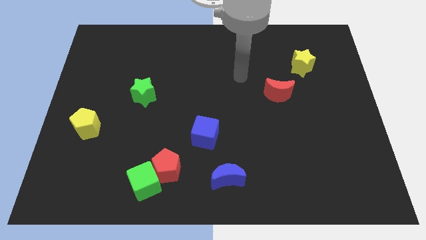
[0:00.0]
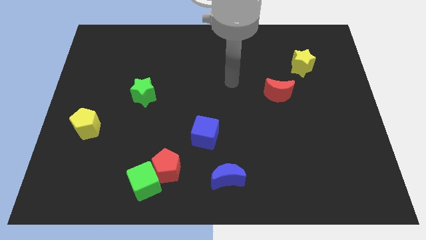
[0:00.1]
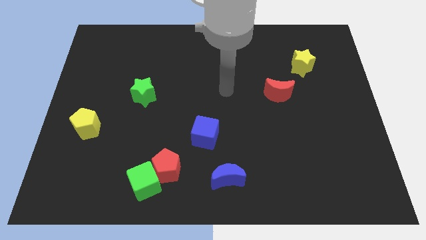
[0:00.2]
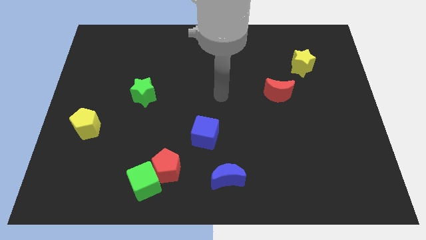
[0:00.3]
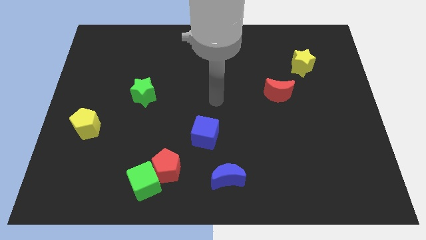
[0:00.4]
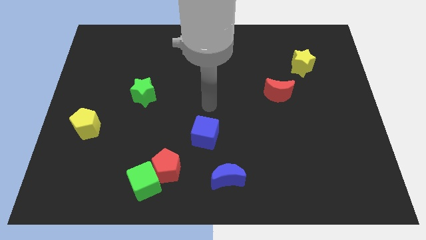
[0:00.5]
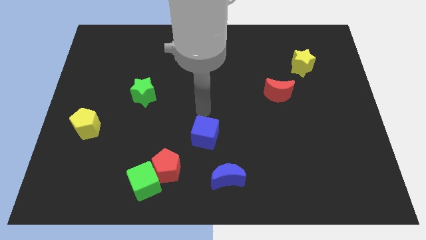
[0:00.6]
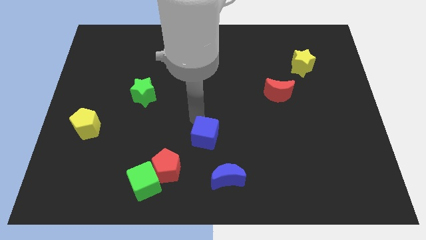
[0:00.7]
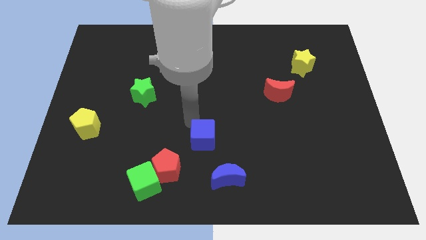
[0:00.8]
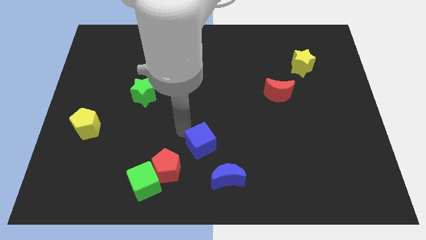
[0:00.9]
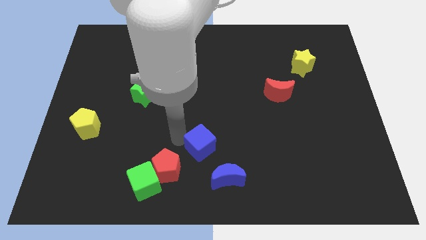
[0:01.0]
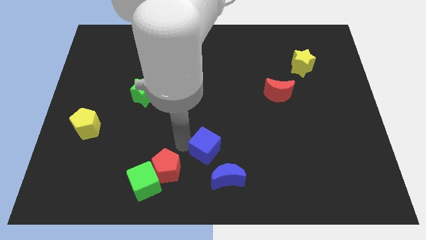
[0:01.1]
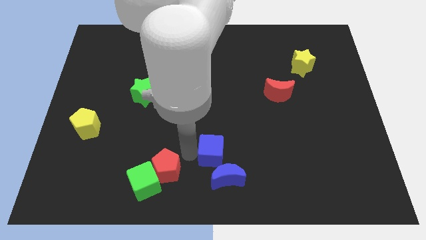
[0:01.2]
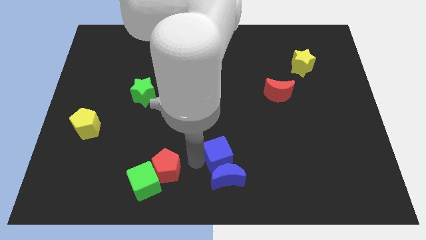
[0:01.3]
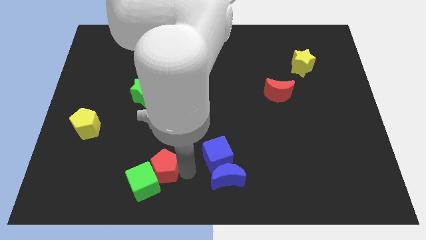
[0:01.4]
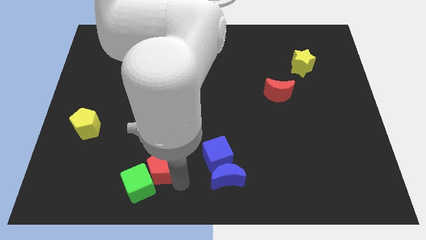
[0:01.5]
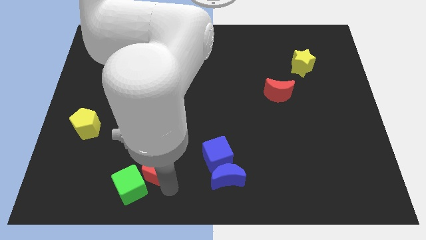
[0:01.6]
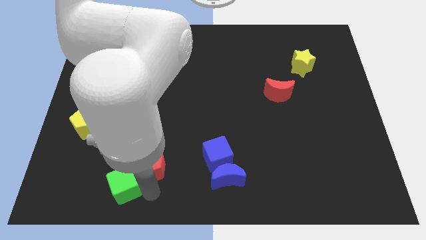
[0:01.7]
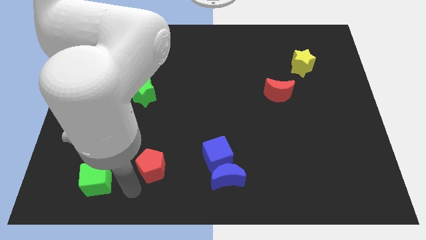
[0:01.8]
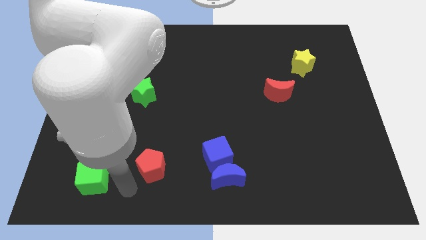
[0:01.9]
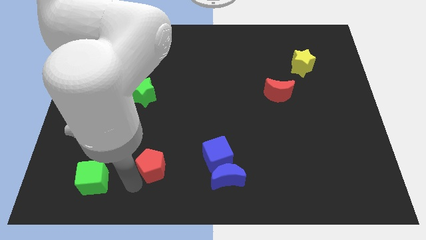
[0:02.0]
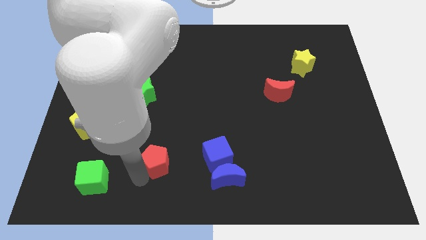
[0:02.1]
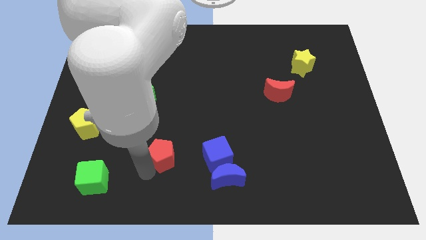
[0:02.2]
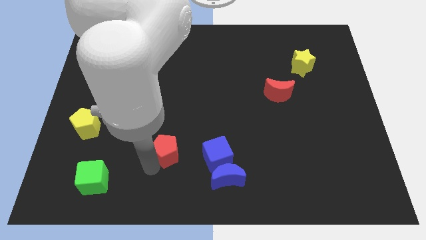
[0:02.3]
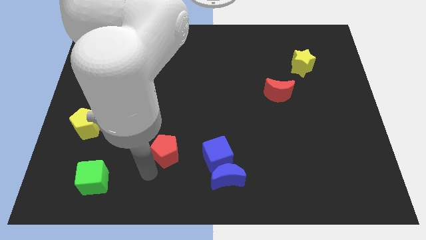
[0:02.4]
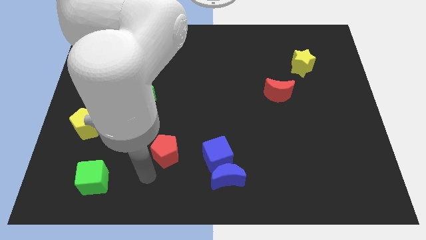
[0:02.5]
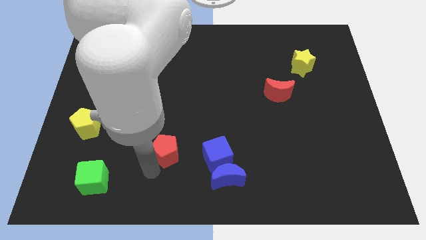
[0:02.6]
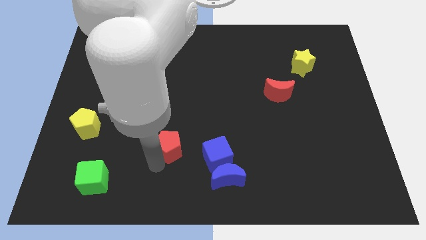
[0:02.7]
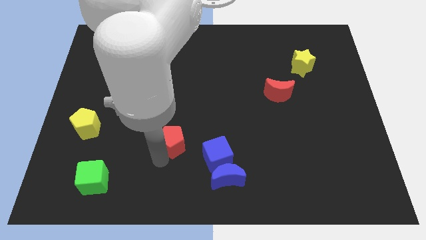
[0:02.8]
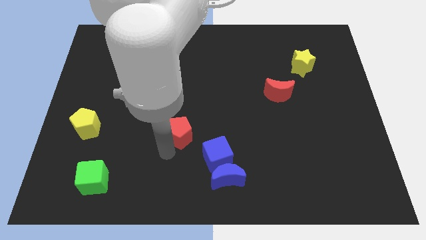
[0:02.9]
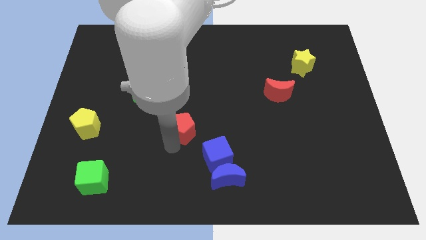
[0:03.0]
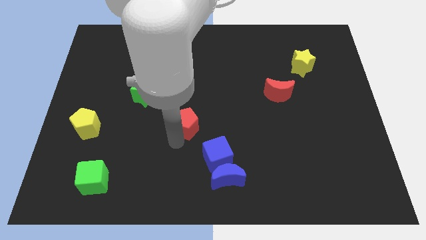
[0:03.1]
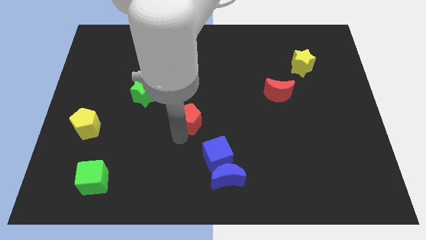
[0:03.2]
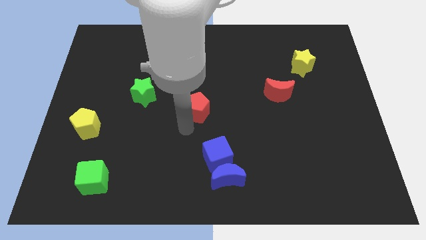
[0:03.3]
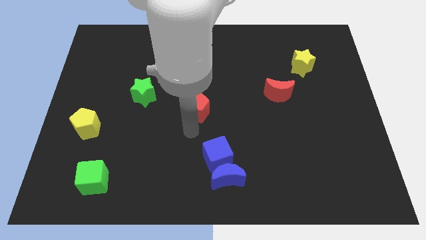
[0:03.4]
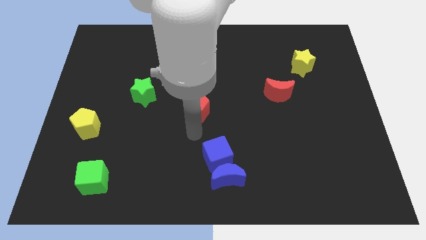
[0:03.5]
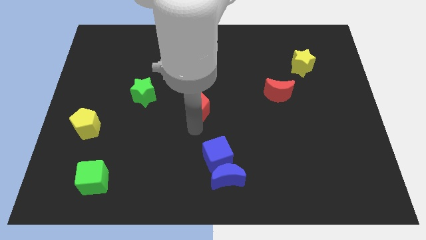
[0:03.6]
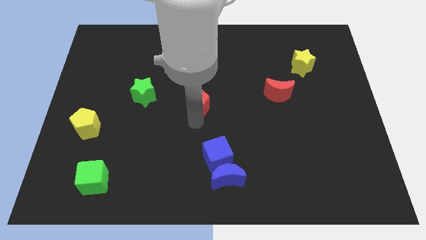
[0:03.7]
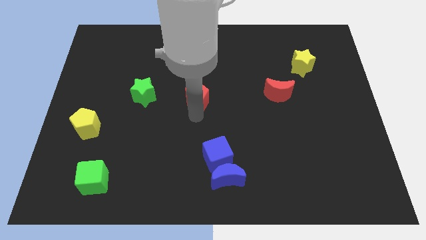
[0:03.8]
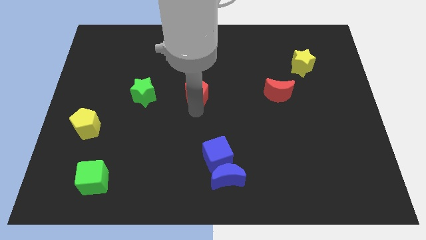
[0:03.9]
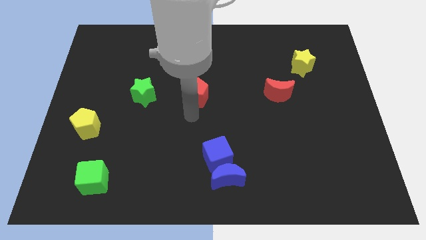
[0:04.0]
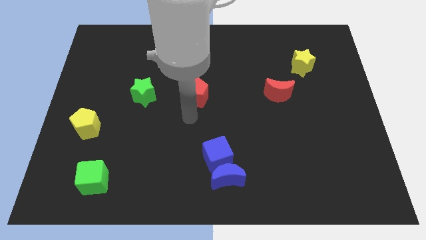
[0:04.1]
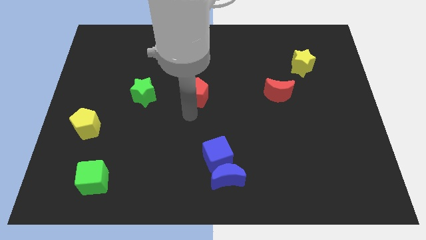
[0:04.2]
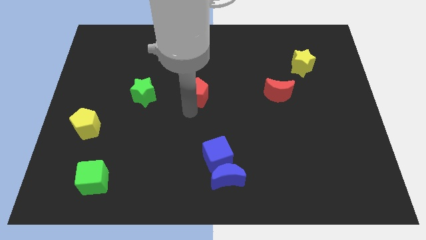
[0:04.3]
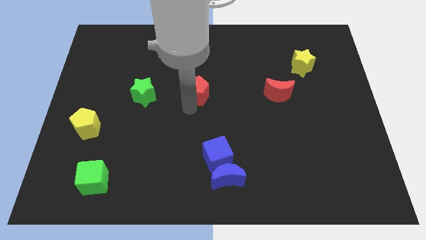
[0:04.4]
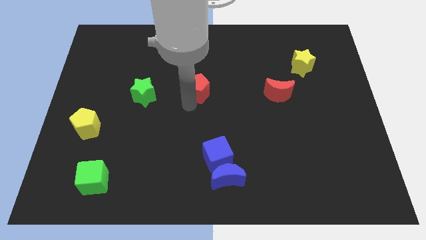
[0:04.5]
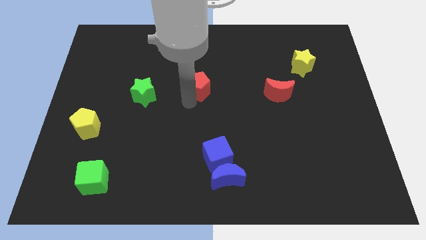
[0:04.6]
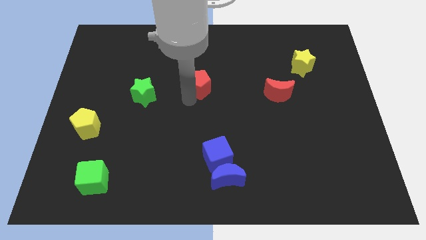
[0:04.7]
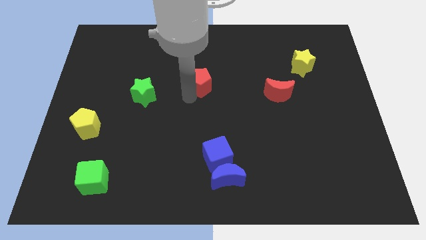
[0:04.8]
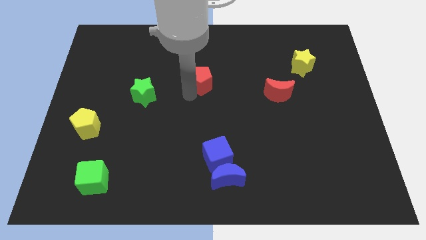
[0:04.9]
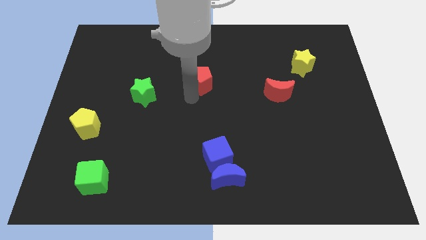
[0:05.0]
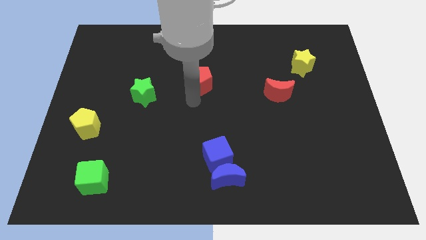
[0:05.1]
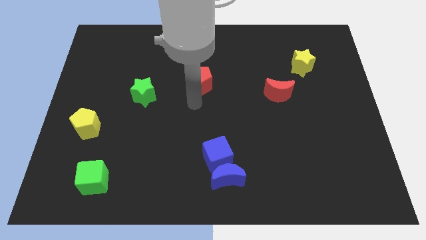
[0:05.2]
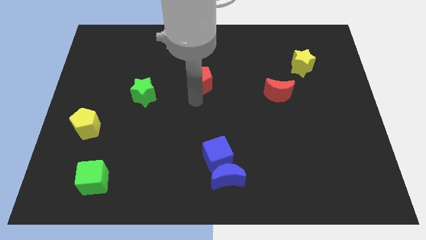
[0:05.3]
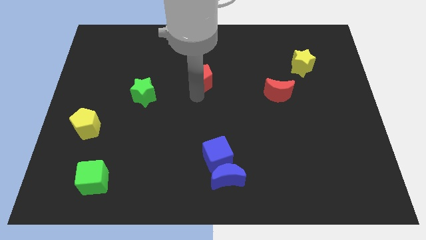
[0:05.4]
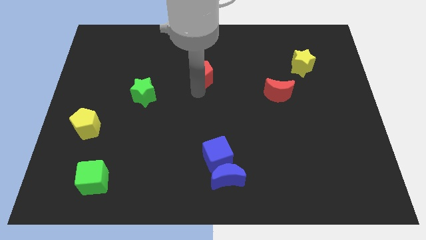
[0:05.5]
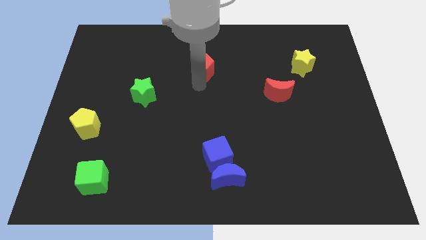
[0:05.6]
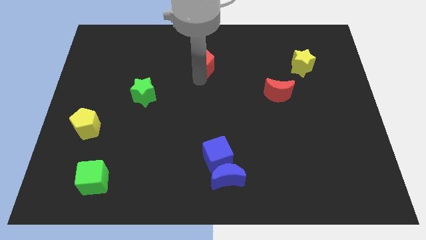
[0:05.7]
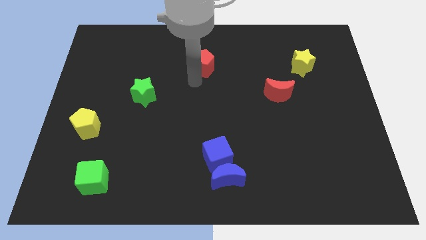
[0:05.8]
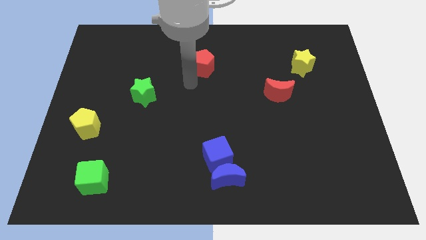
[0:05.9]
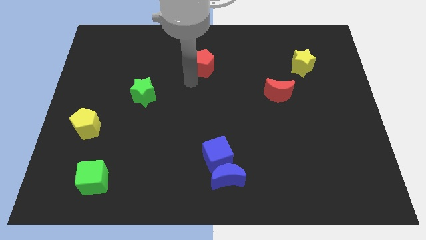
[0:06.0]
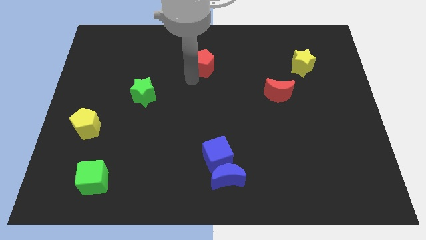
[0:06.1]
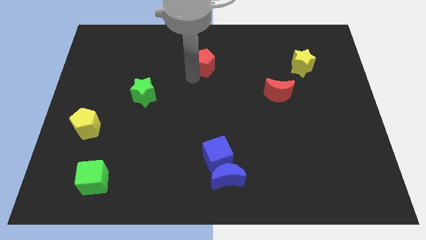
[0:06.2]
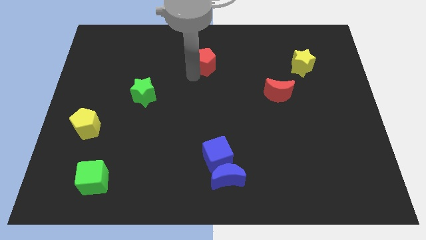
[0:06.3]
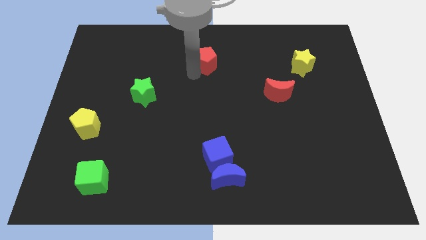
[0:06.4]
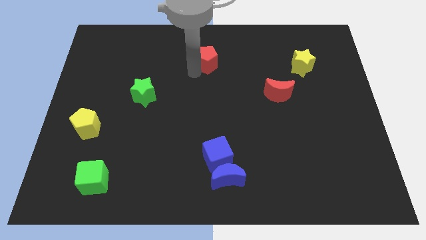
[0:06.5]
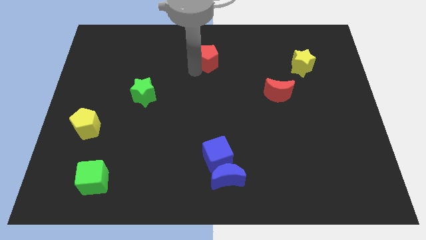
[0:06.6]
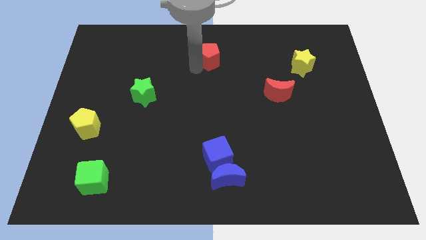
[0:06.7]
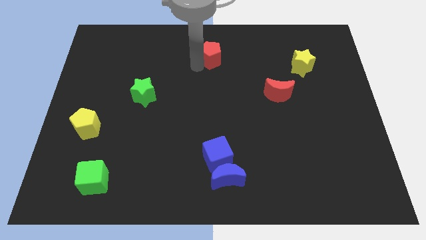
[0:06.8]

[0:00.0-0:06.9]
push the red pentagon to the top

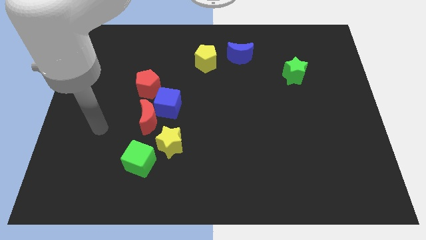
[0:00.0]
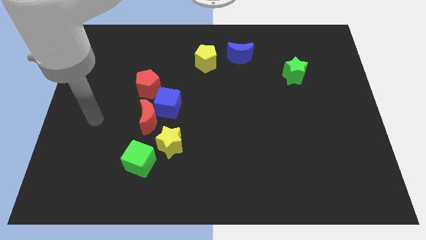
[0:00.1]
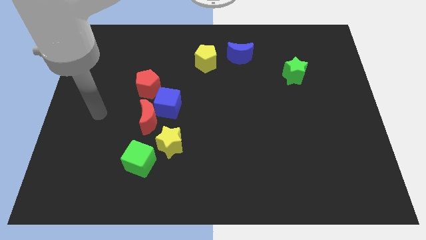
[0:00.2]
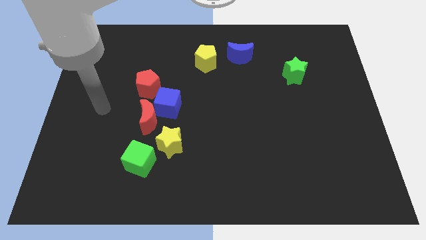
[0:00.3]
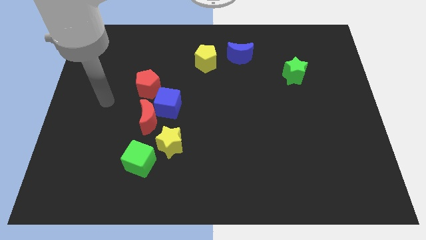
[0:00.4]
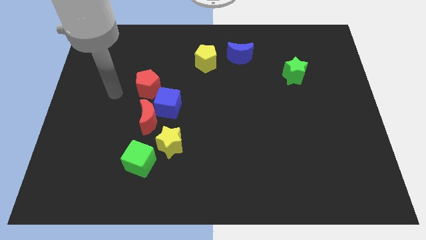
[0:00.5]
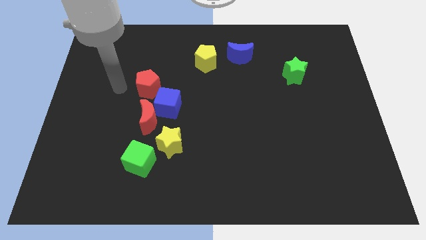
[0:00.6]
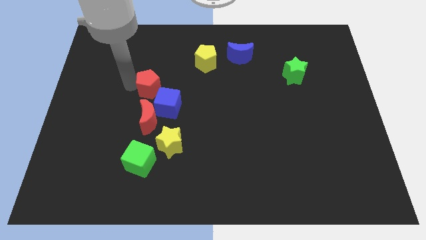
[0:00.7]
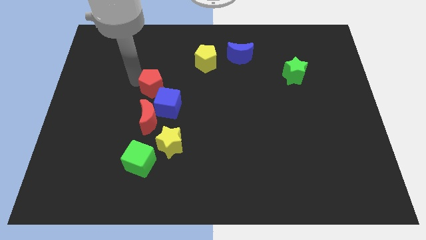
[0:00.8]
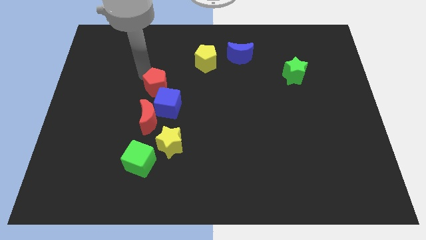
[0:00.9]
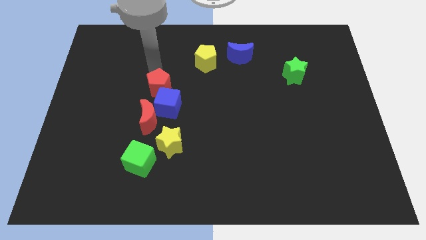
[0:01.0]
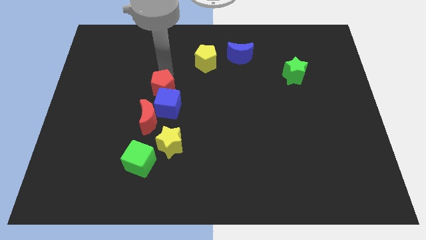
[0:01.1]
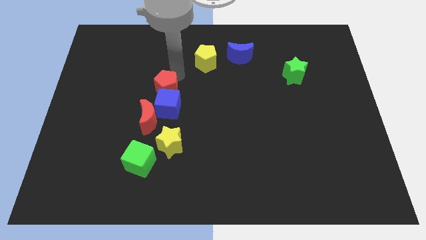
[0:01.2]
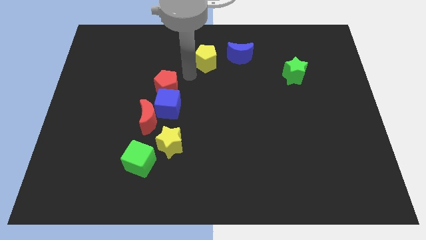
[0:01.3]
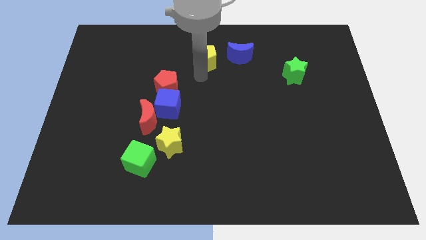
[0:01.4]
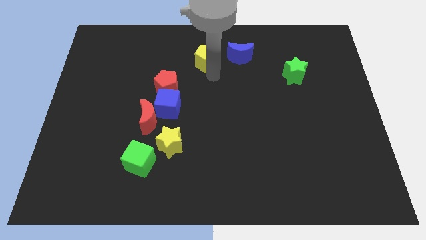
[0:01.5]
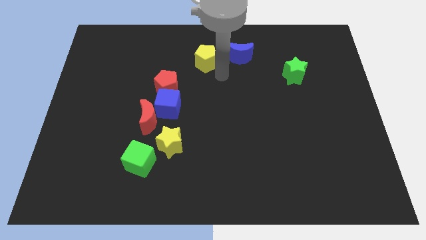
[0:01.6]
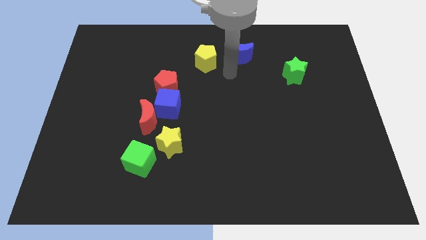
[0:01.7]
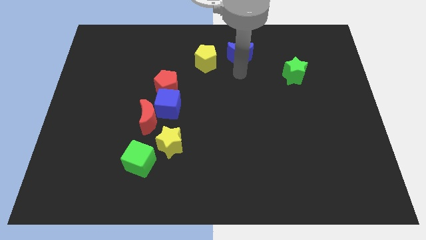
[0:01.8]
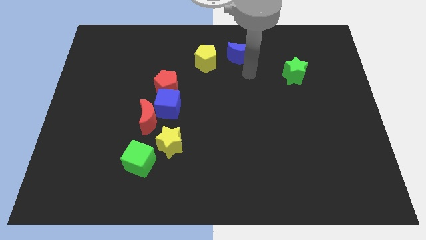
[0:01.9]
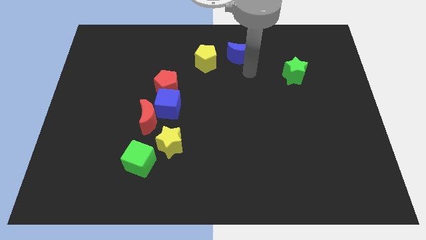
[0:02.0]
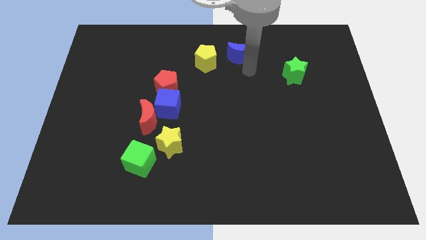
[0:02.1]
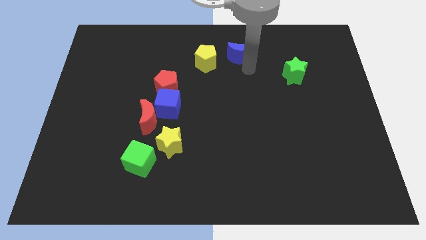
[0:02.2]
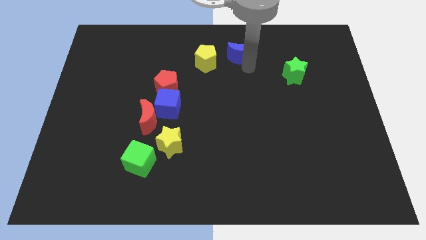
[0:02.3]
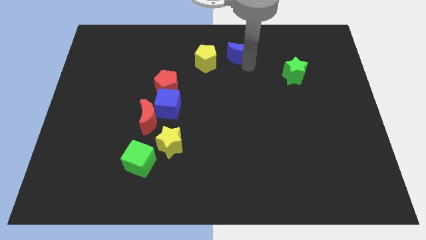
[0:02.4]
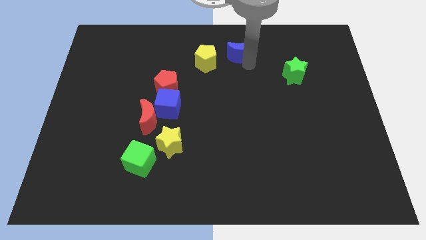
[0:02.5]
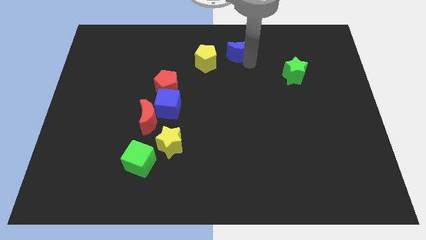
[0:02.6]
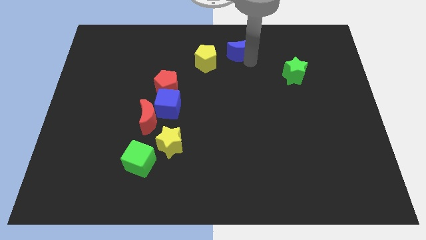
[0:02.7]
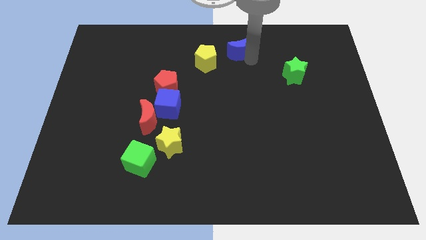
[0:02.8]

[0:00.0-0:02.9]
move the blue moon to the top
